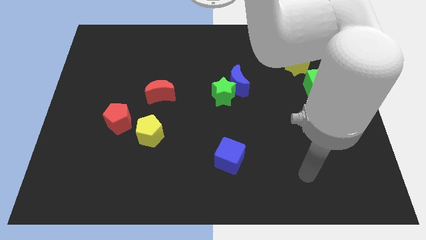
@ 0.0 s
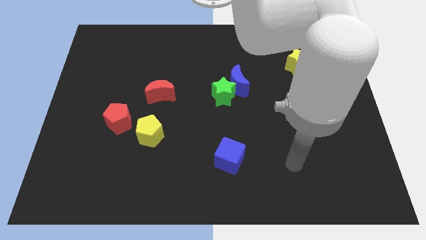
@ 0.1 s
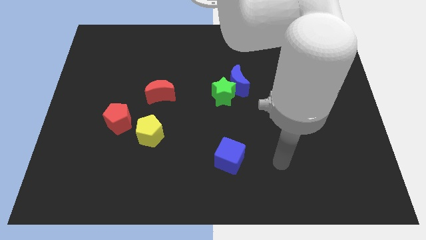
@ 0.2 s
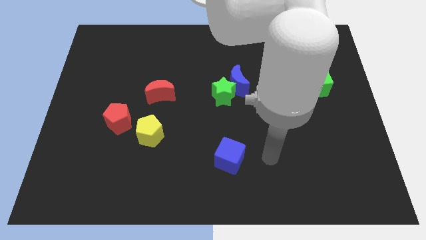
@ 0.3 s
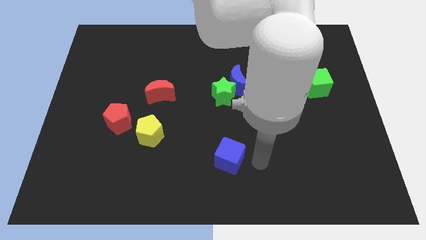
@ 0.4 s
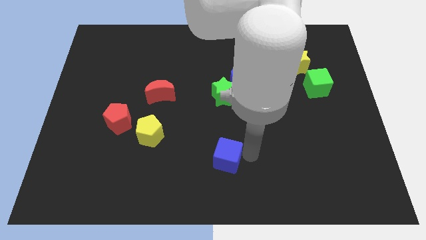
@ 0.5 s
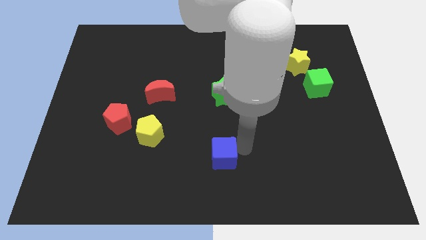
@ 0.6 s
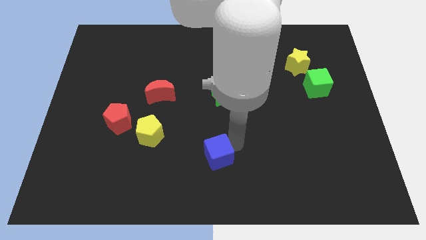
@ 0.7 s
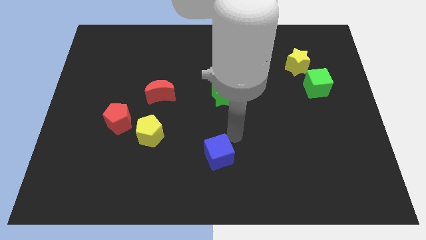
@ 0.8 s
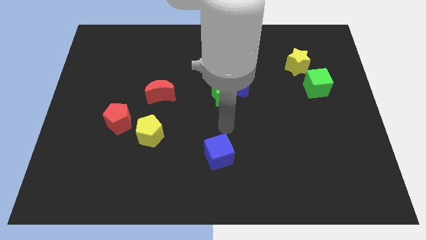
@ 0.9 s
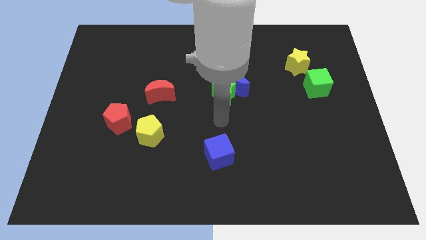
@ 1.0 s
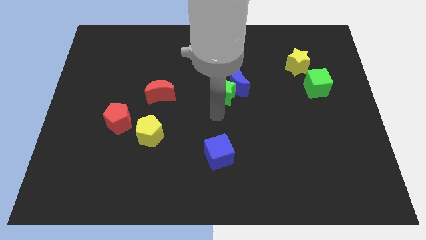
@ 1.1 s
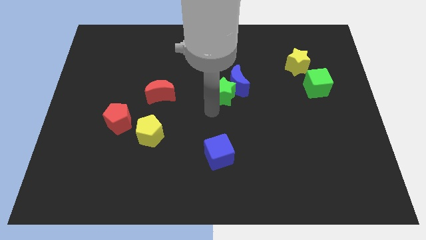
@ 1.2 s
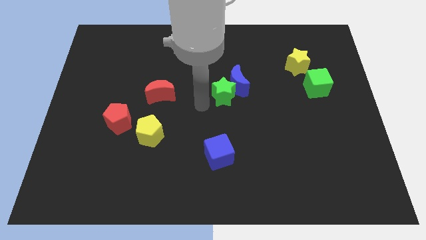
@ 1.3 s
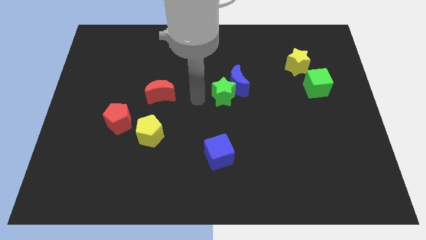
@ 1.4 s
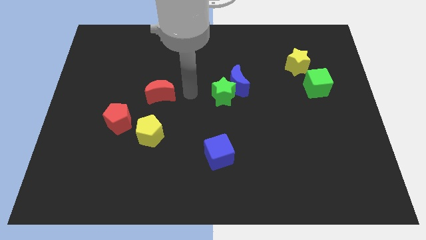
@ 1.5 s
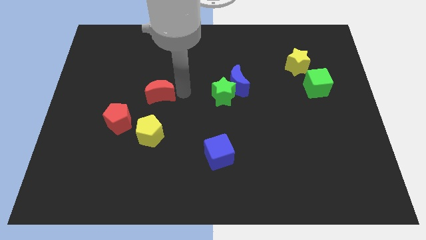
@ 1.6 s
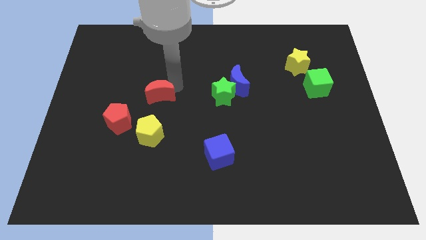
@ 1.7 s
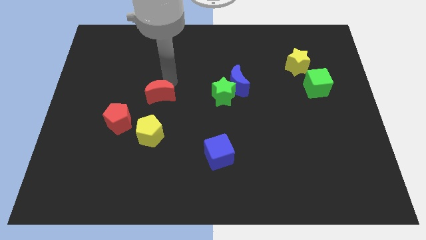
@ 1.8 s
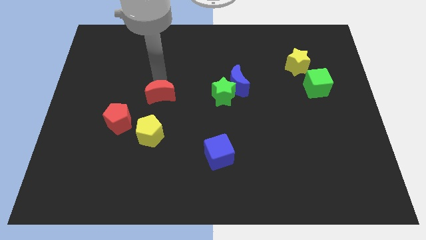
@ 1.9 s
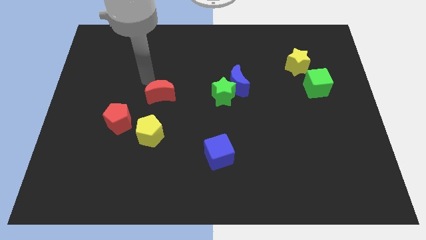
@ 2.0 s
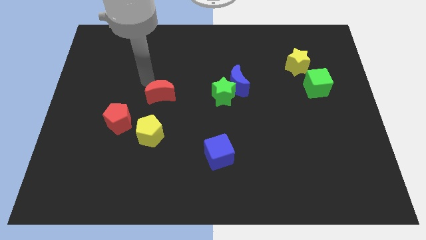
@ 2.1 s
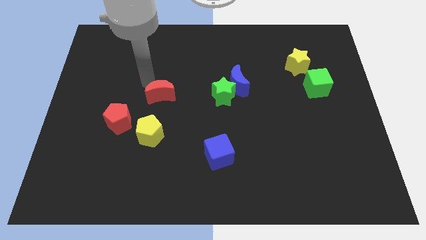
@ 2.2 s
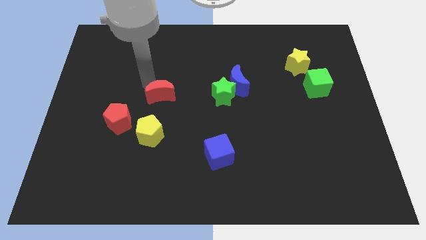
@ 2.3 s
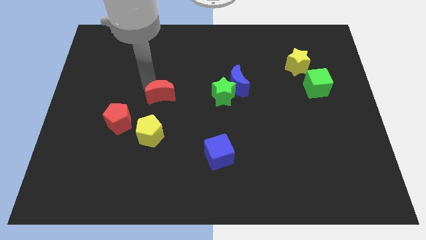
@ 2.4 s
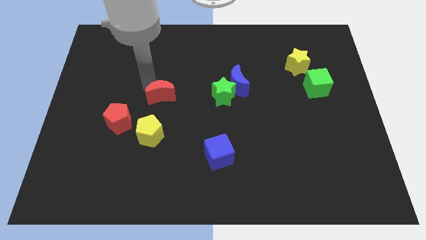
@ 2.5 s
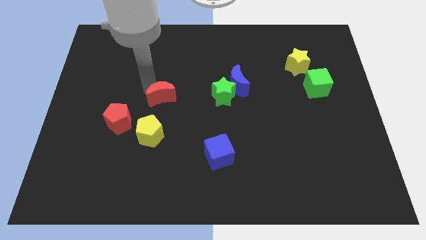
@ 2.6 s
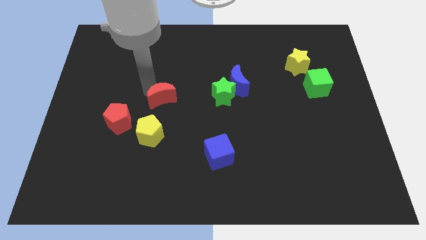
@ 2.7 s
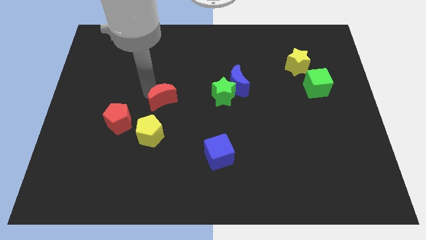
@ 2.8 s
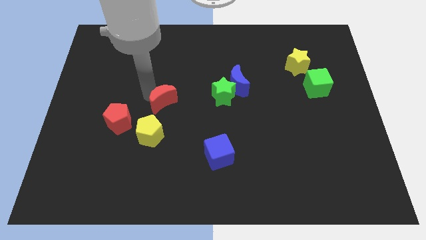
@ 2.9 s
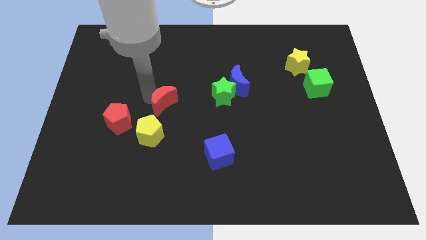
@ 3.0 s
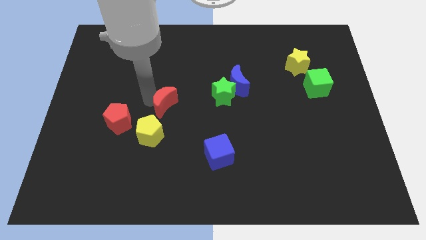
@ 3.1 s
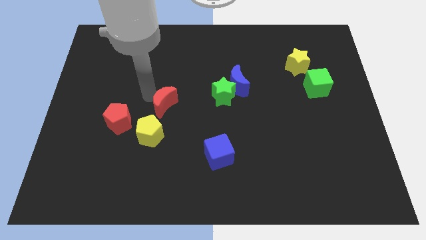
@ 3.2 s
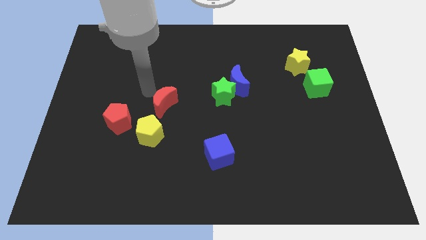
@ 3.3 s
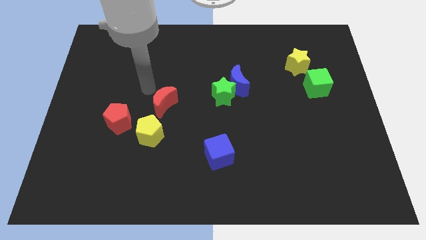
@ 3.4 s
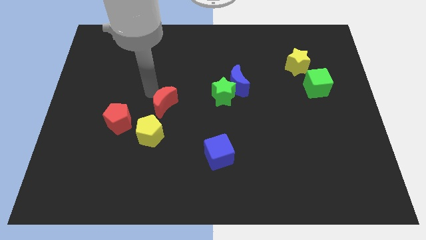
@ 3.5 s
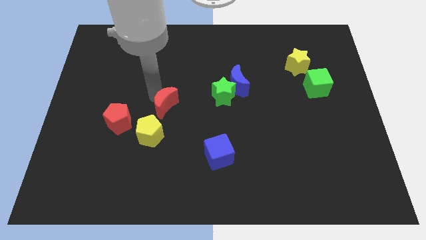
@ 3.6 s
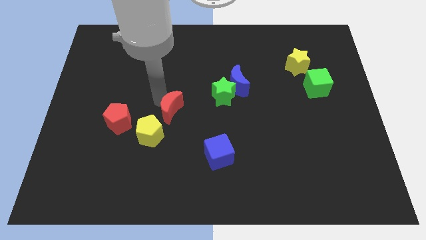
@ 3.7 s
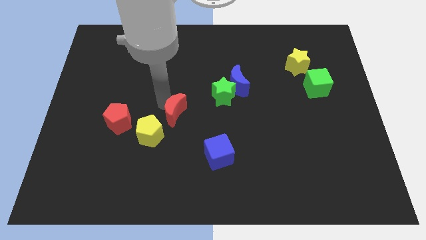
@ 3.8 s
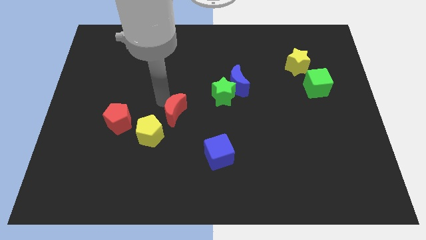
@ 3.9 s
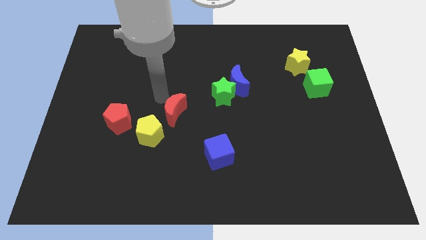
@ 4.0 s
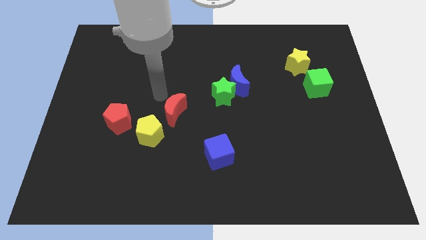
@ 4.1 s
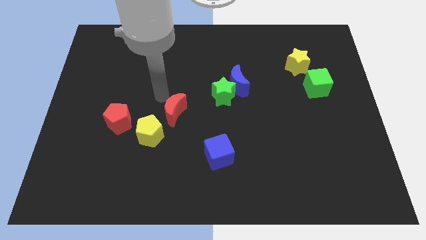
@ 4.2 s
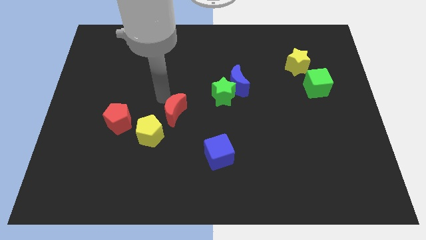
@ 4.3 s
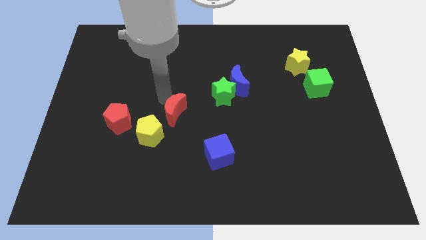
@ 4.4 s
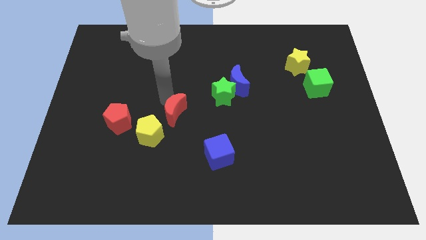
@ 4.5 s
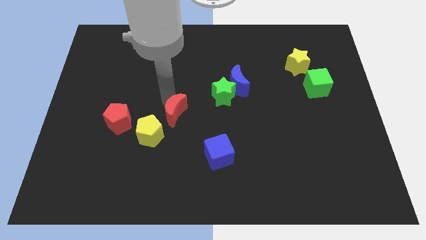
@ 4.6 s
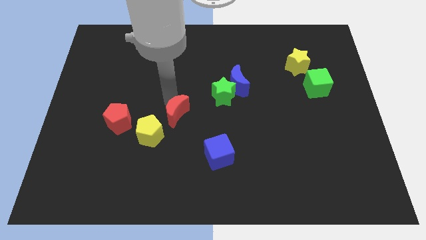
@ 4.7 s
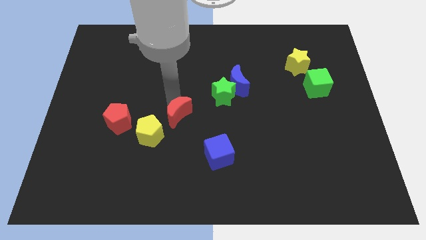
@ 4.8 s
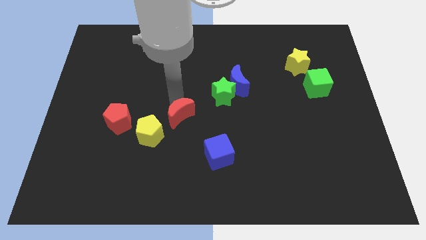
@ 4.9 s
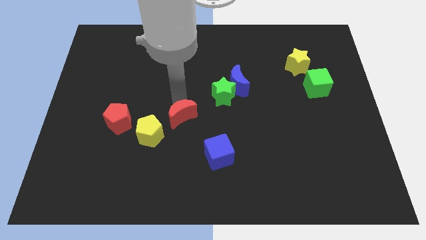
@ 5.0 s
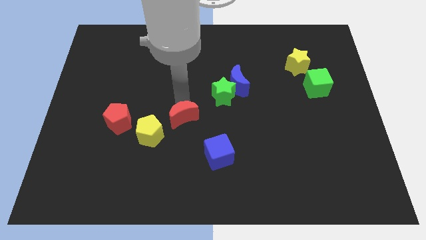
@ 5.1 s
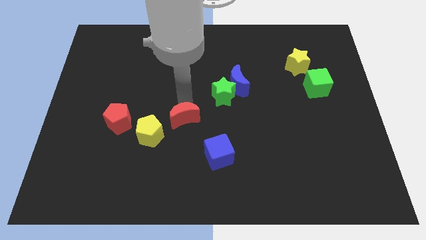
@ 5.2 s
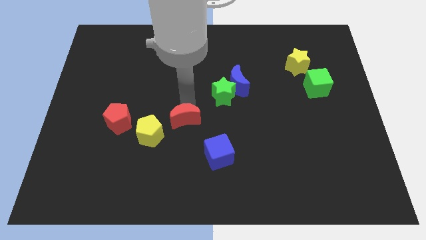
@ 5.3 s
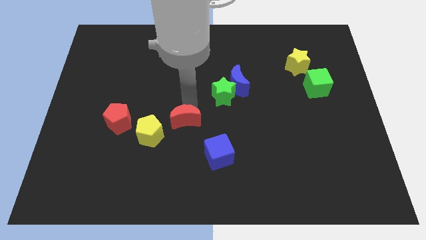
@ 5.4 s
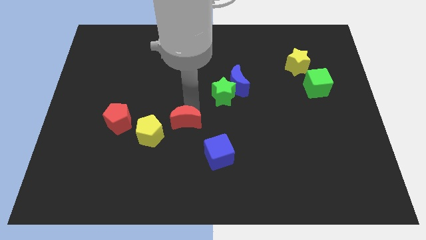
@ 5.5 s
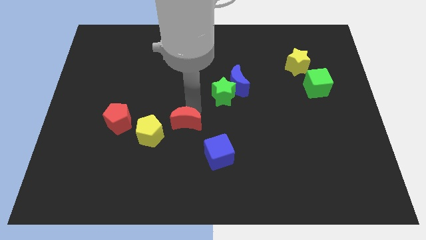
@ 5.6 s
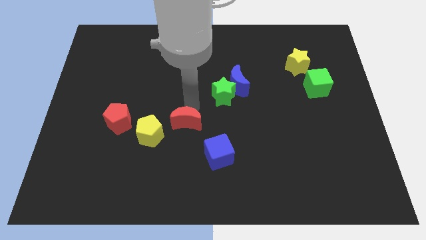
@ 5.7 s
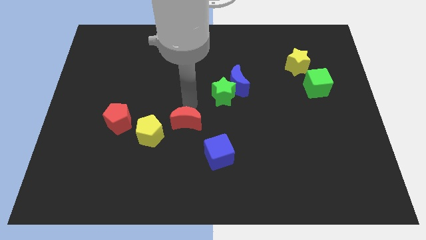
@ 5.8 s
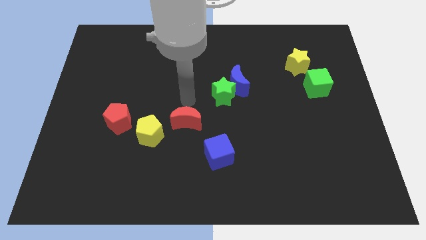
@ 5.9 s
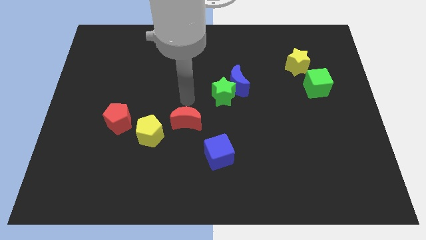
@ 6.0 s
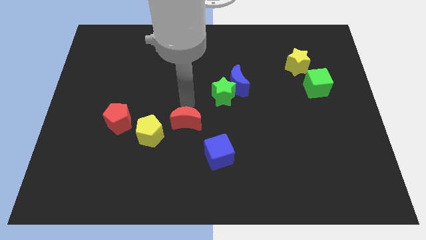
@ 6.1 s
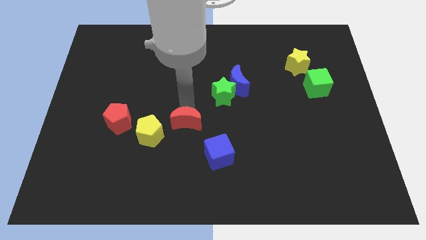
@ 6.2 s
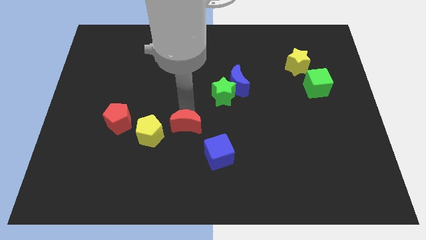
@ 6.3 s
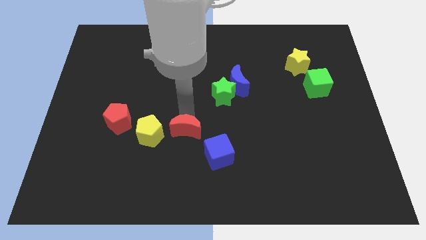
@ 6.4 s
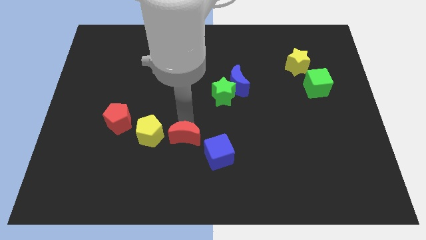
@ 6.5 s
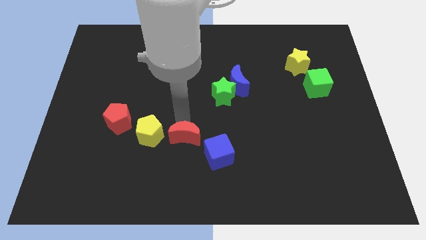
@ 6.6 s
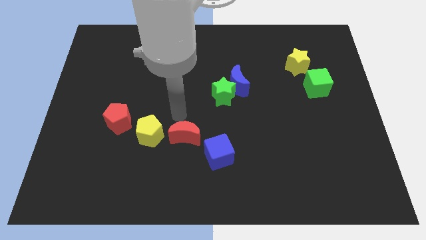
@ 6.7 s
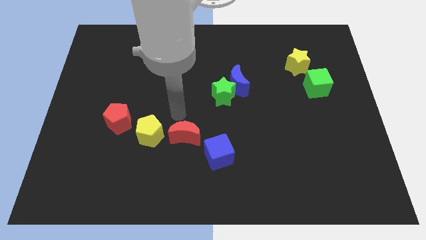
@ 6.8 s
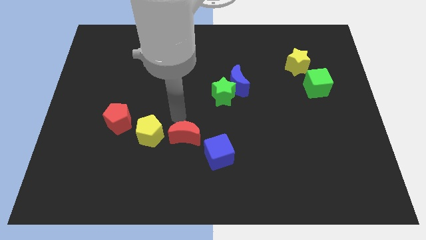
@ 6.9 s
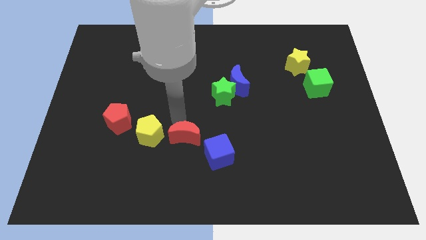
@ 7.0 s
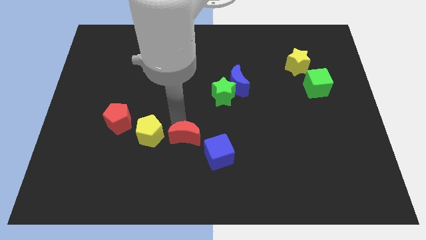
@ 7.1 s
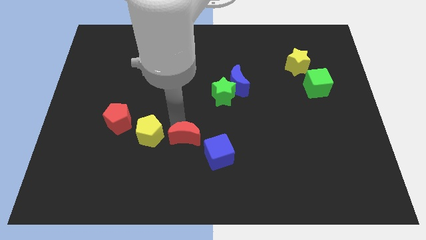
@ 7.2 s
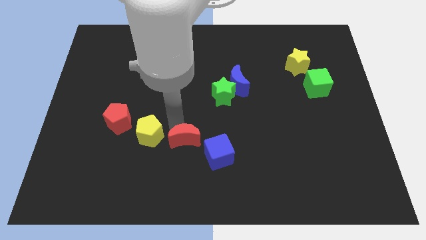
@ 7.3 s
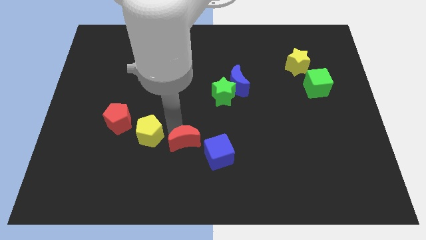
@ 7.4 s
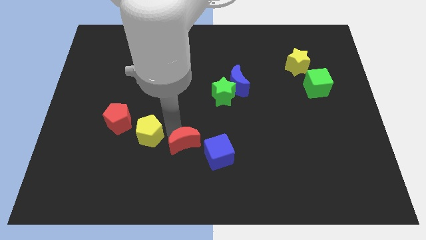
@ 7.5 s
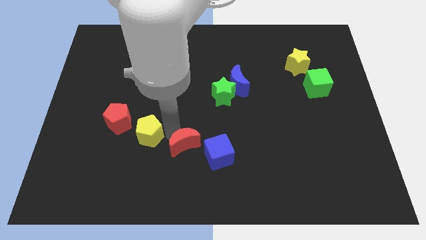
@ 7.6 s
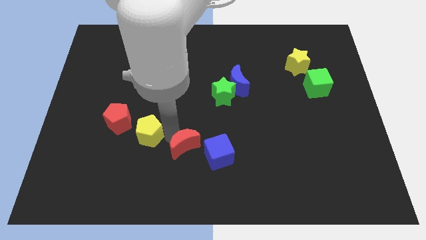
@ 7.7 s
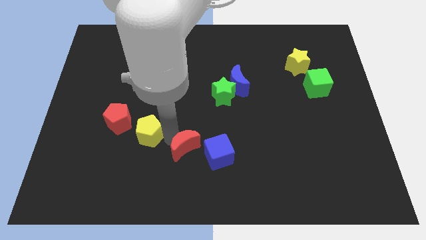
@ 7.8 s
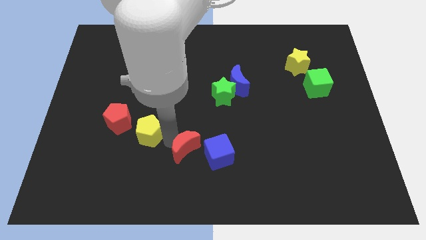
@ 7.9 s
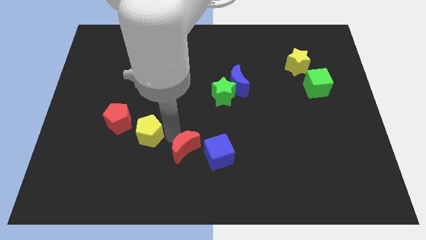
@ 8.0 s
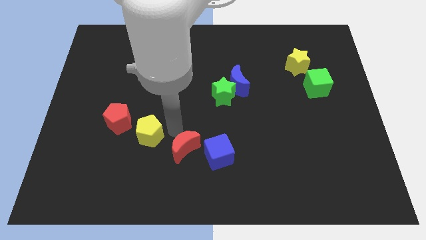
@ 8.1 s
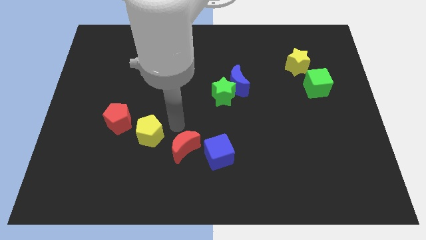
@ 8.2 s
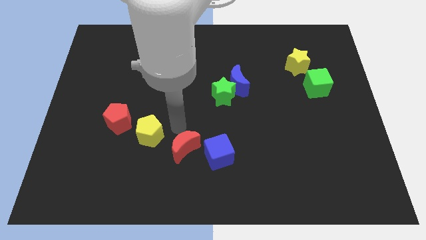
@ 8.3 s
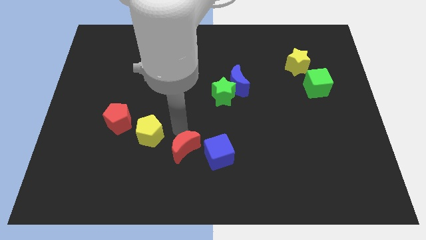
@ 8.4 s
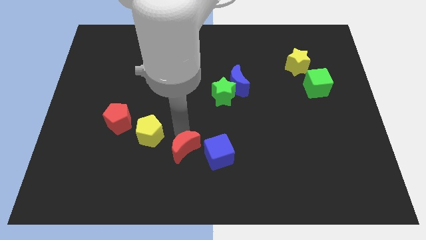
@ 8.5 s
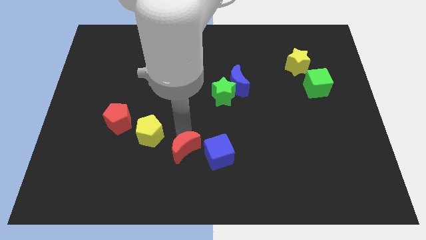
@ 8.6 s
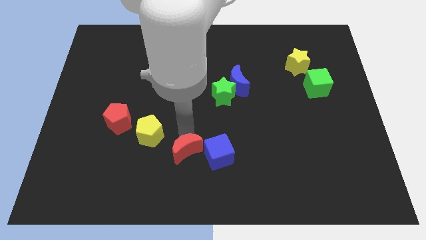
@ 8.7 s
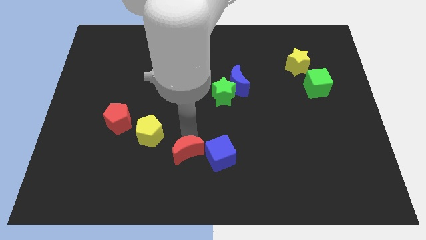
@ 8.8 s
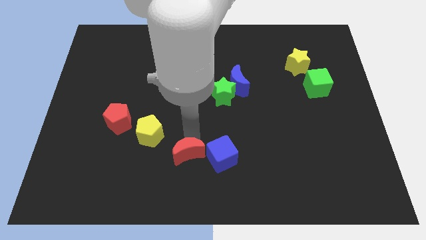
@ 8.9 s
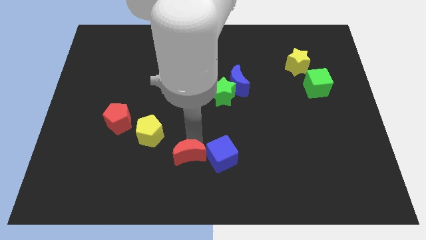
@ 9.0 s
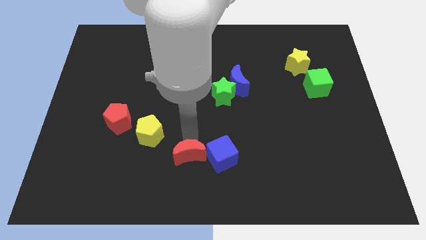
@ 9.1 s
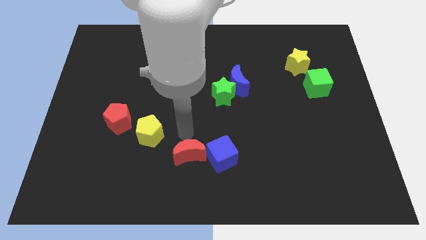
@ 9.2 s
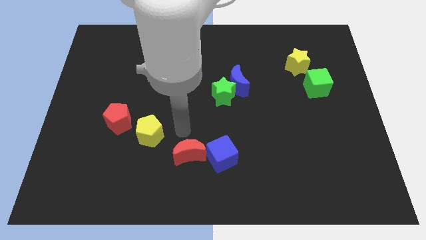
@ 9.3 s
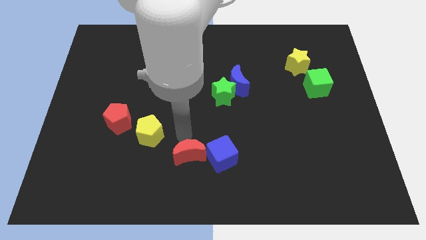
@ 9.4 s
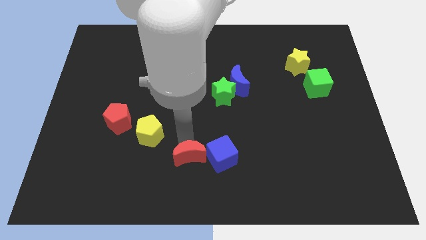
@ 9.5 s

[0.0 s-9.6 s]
put the red moon to the bottom left side of the blue cube
